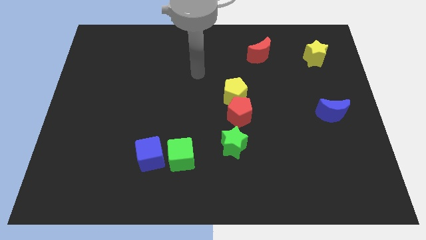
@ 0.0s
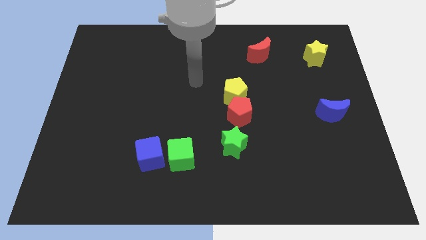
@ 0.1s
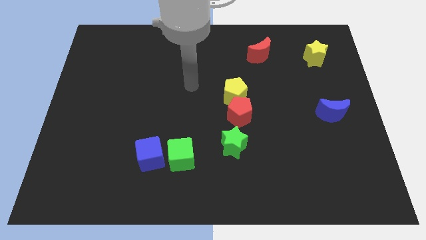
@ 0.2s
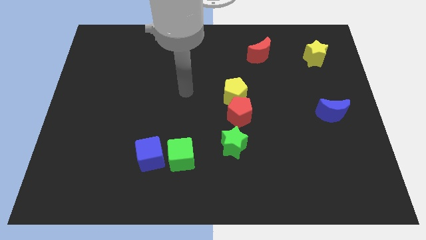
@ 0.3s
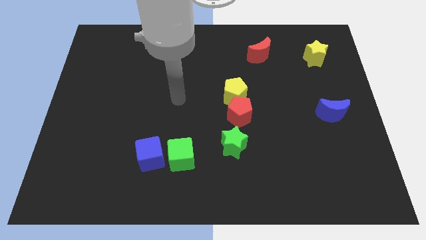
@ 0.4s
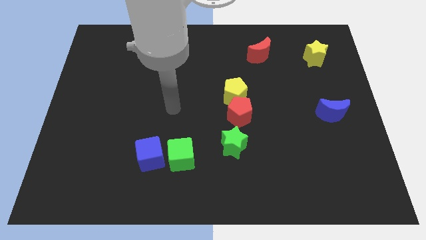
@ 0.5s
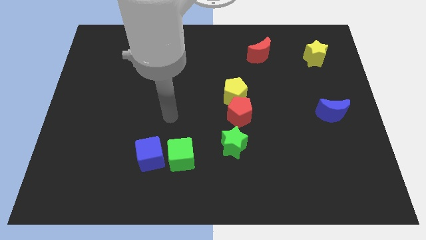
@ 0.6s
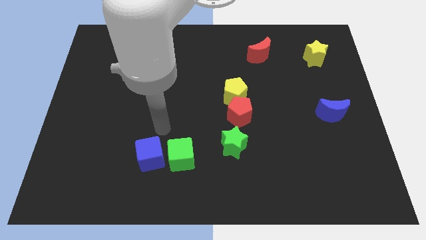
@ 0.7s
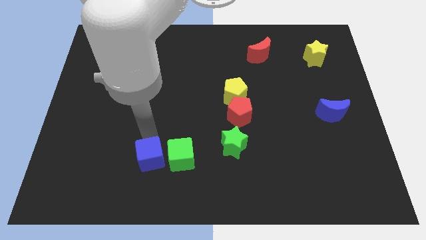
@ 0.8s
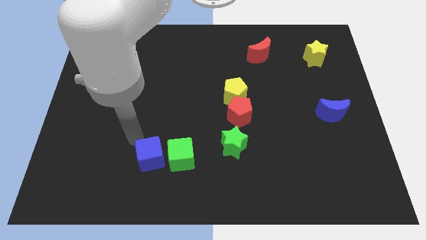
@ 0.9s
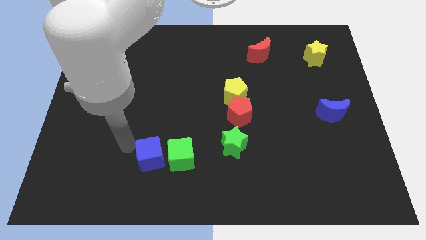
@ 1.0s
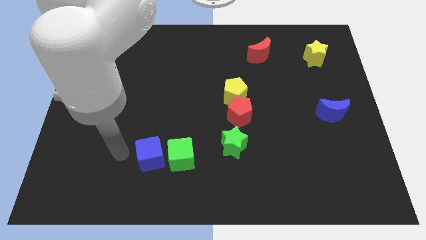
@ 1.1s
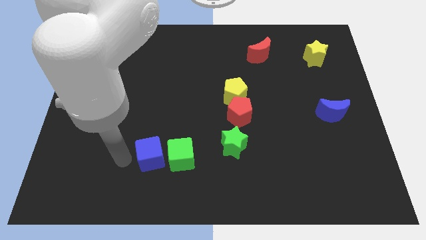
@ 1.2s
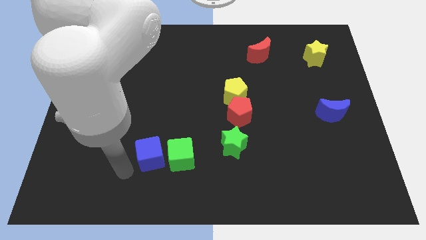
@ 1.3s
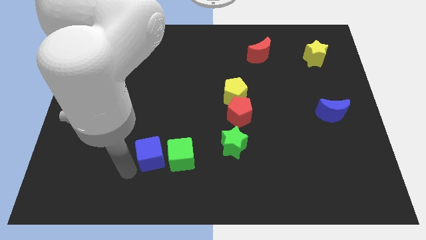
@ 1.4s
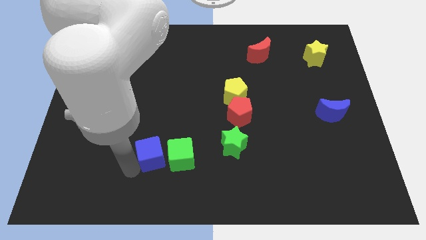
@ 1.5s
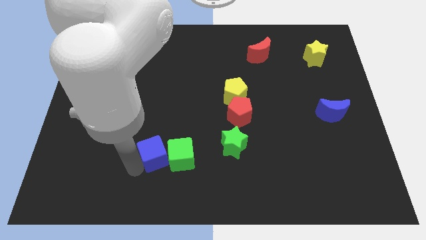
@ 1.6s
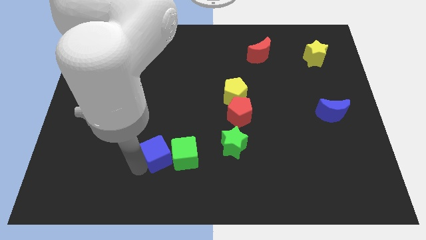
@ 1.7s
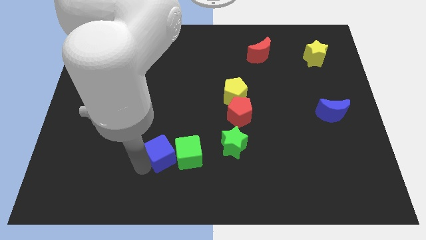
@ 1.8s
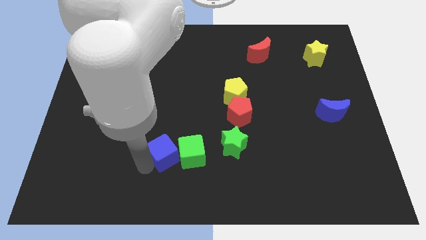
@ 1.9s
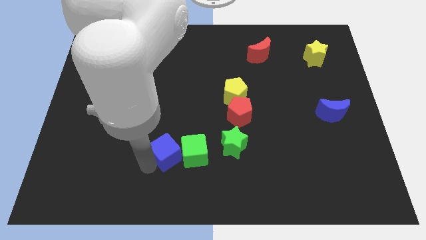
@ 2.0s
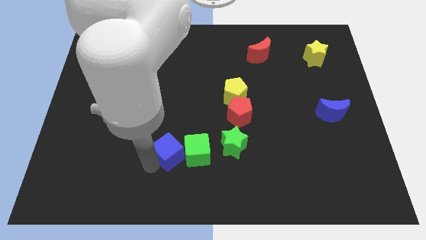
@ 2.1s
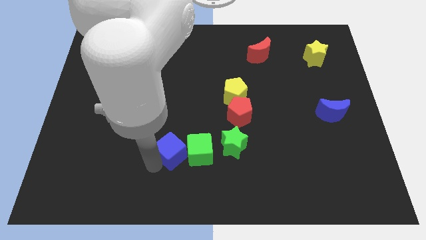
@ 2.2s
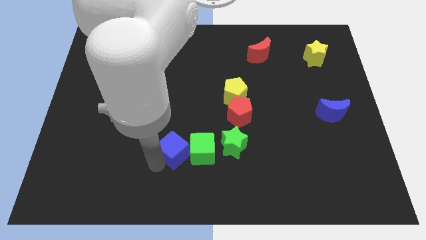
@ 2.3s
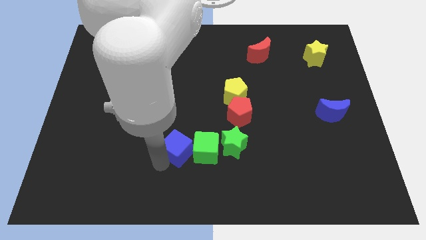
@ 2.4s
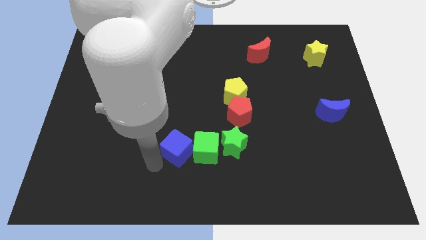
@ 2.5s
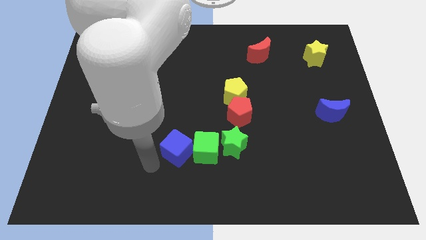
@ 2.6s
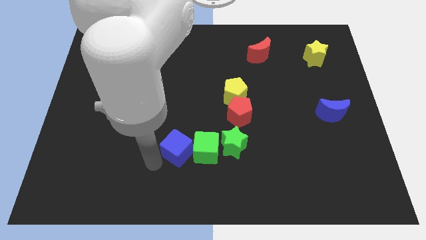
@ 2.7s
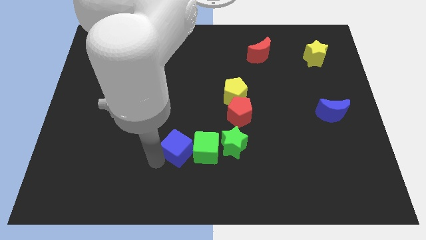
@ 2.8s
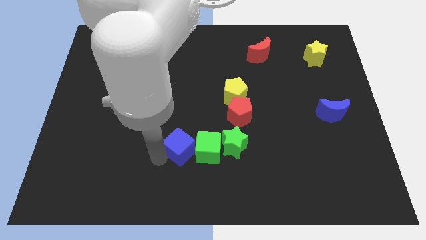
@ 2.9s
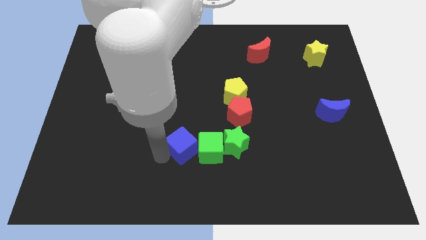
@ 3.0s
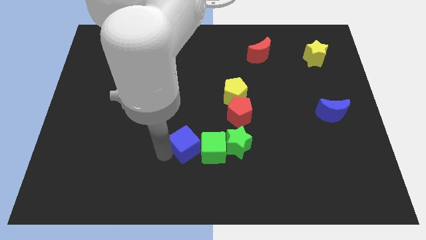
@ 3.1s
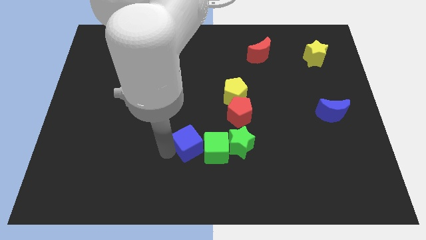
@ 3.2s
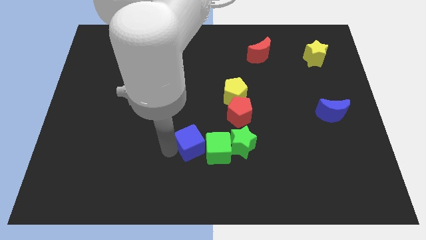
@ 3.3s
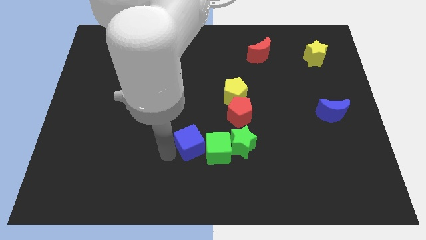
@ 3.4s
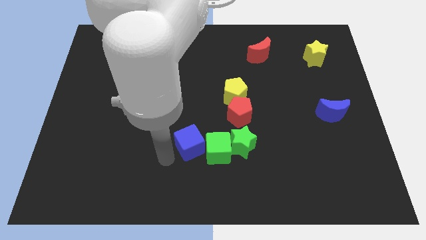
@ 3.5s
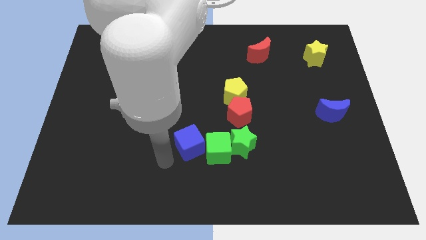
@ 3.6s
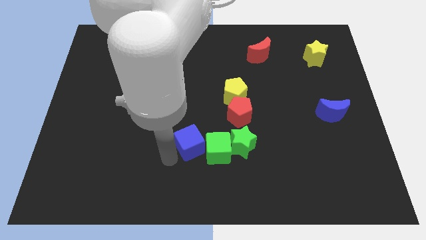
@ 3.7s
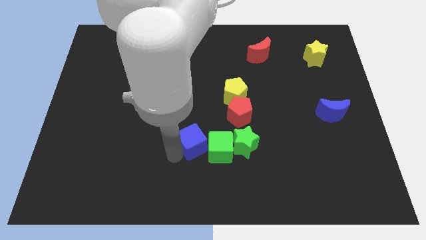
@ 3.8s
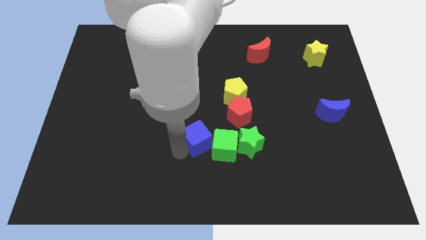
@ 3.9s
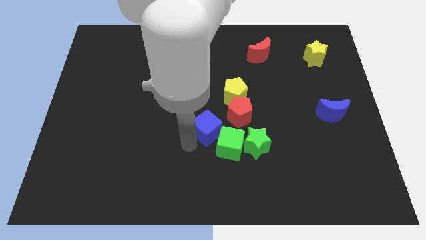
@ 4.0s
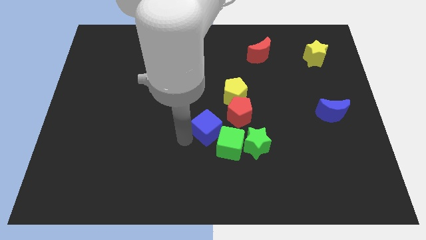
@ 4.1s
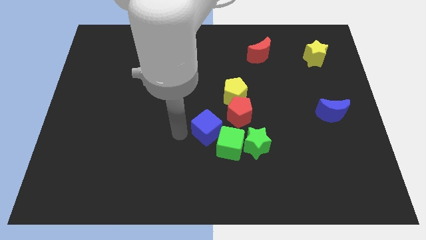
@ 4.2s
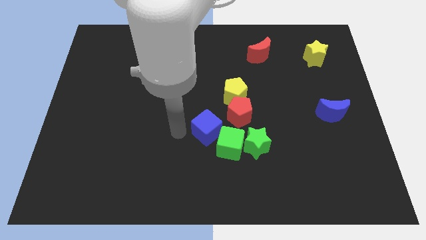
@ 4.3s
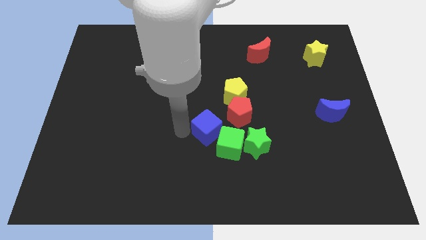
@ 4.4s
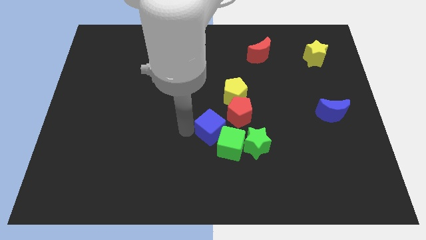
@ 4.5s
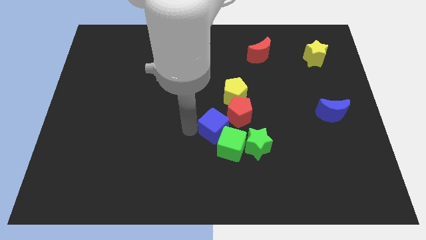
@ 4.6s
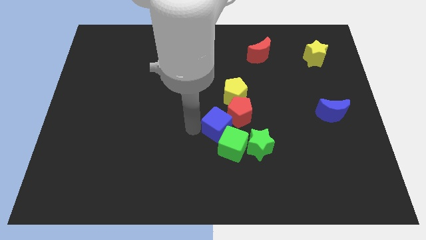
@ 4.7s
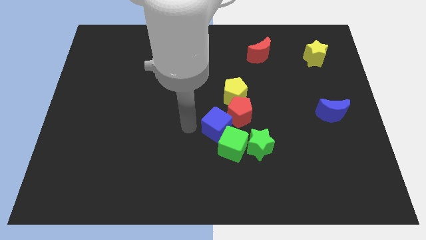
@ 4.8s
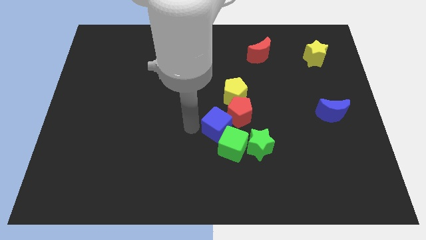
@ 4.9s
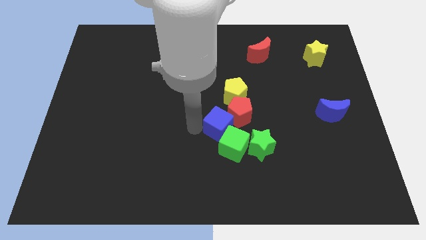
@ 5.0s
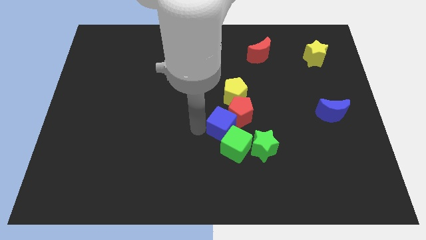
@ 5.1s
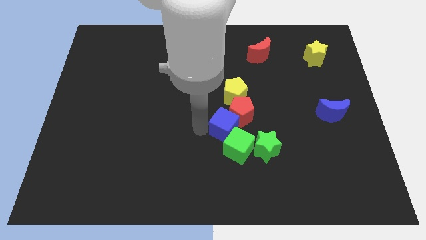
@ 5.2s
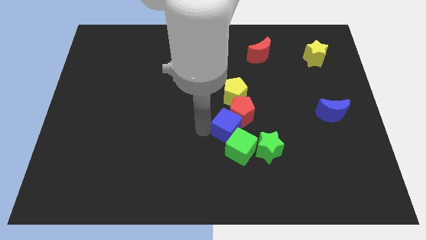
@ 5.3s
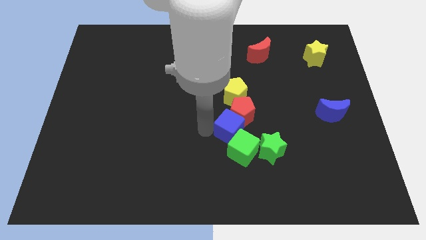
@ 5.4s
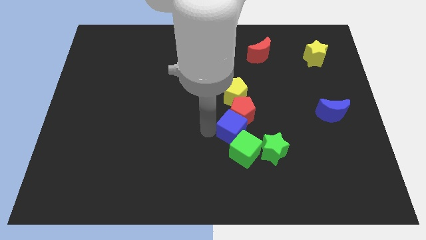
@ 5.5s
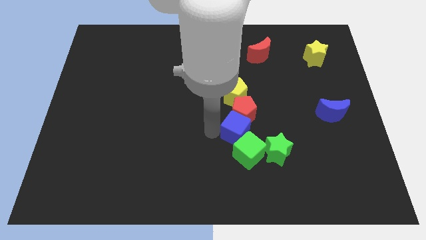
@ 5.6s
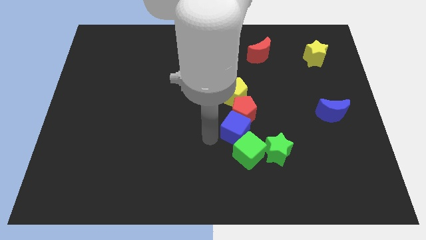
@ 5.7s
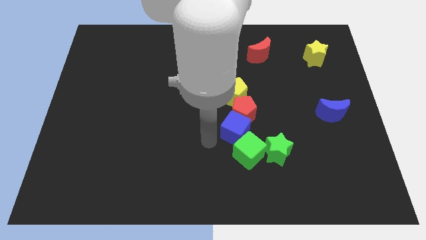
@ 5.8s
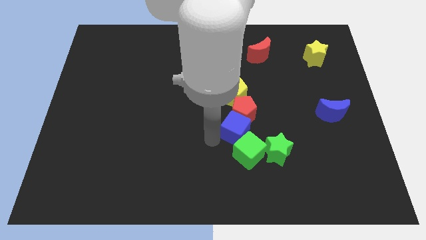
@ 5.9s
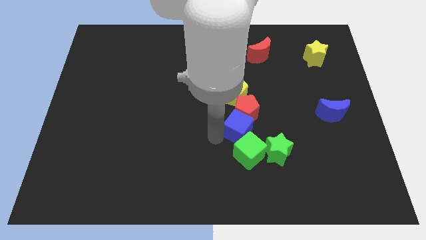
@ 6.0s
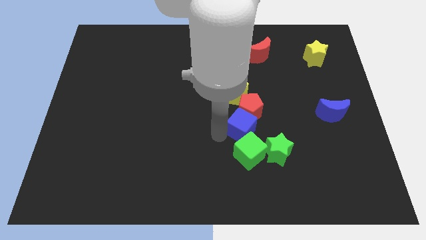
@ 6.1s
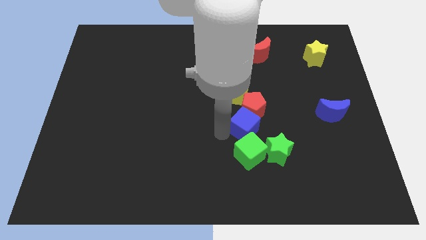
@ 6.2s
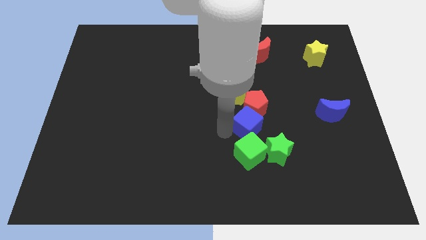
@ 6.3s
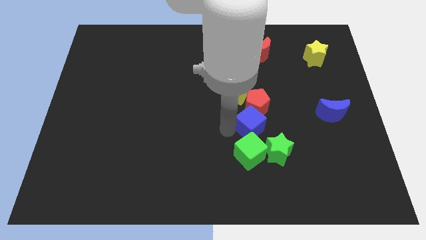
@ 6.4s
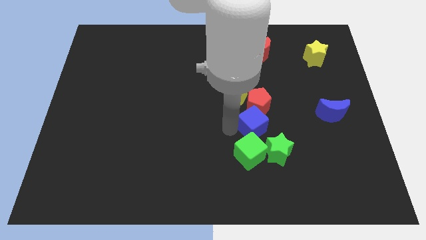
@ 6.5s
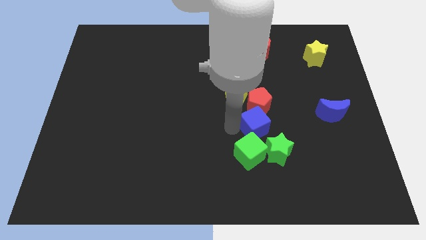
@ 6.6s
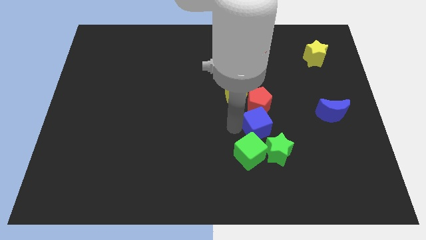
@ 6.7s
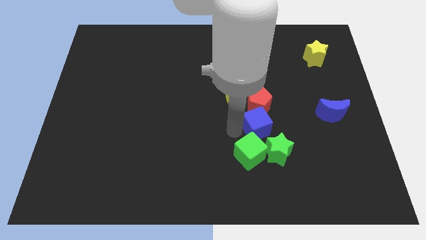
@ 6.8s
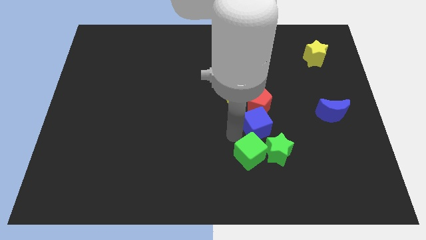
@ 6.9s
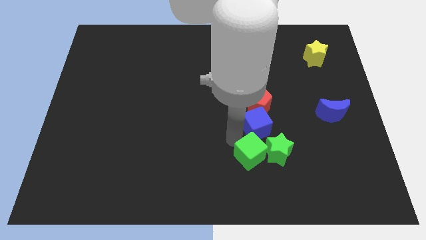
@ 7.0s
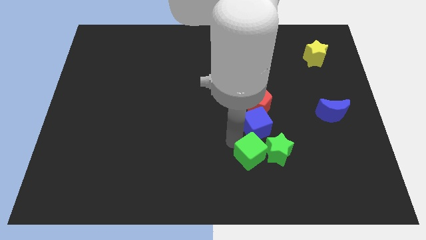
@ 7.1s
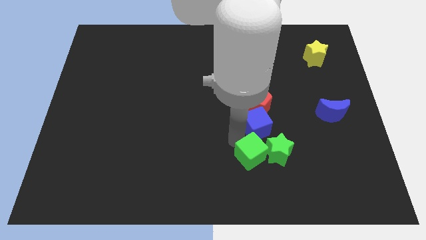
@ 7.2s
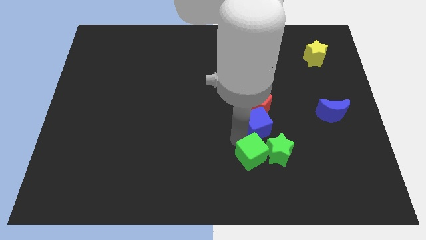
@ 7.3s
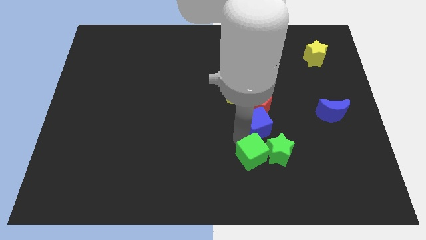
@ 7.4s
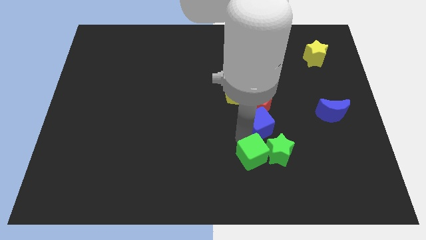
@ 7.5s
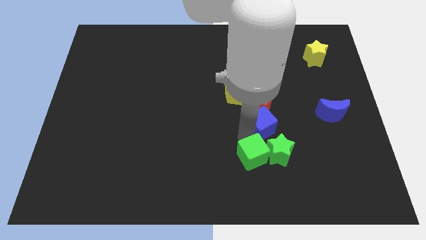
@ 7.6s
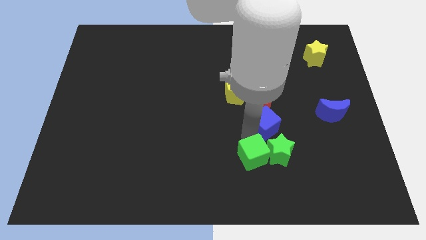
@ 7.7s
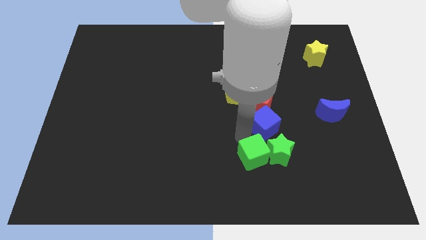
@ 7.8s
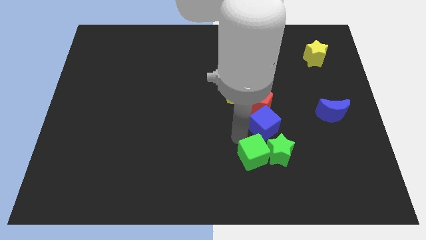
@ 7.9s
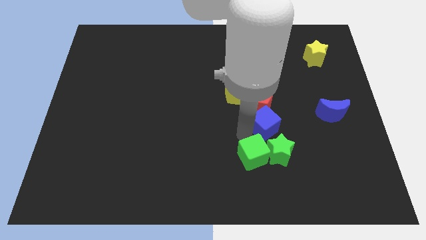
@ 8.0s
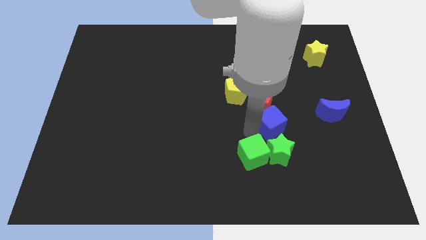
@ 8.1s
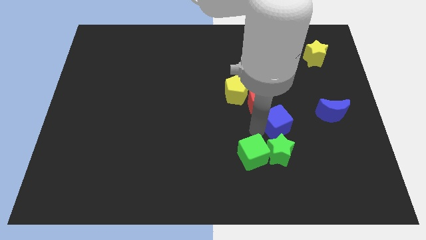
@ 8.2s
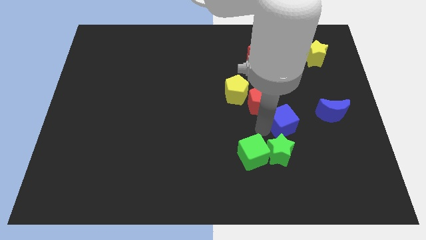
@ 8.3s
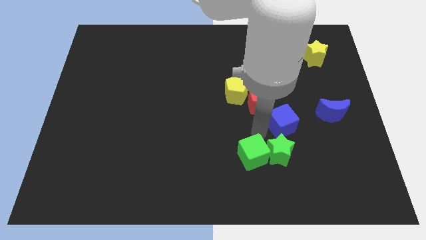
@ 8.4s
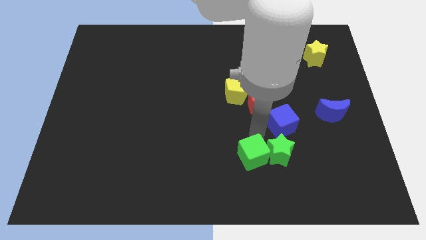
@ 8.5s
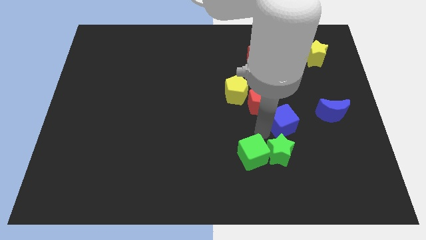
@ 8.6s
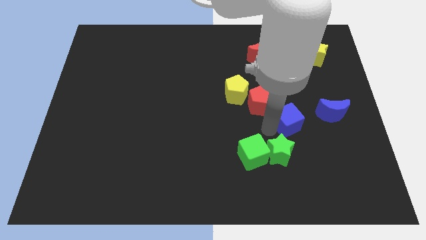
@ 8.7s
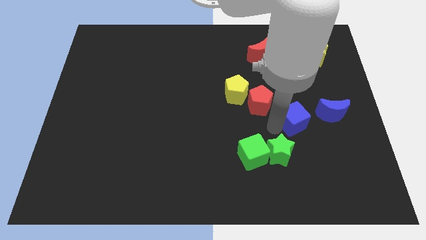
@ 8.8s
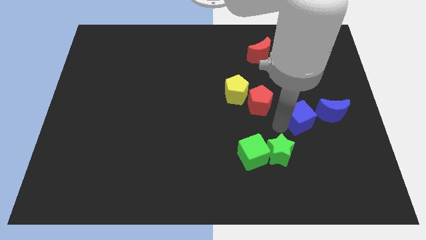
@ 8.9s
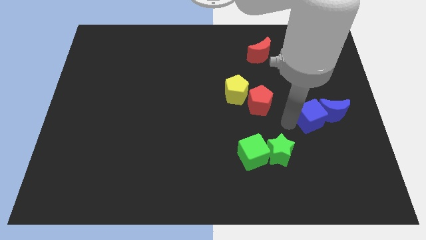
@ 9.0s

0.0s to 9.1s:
slide the blue cube towards the blue moon
